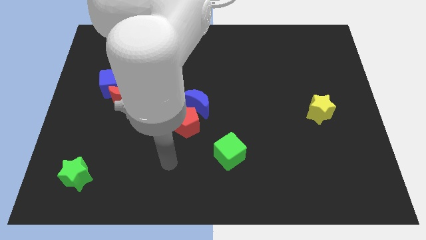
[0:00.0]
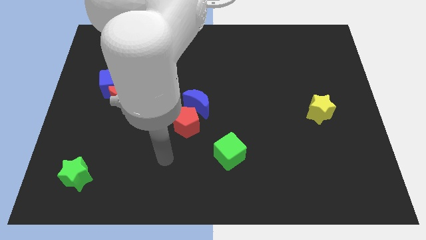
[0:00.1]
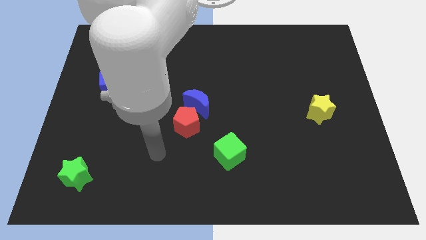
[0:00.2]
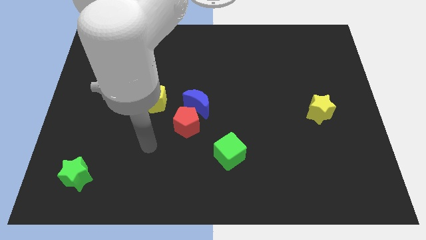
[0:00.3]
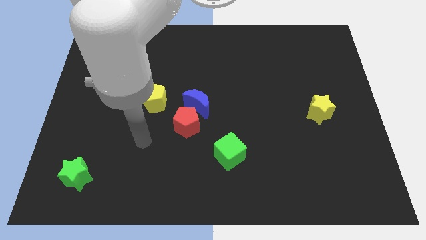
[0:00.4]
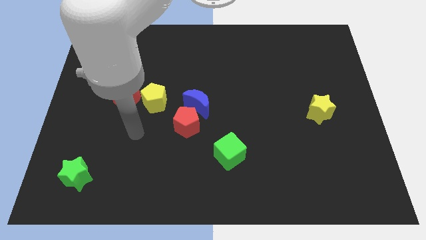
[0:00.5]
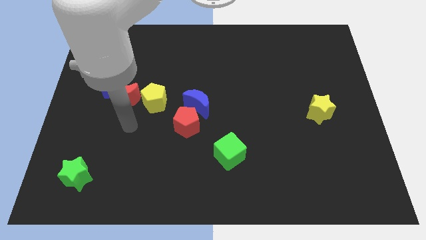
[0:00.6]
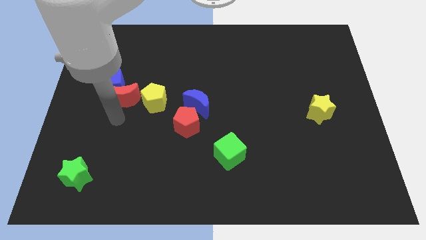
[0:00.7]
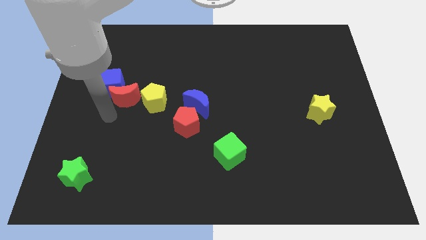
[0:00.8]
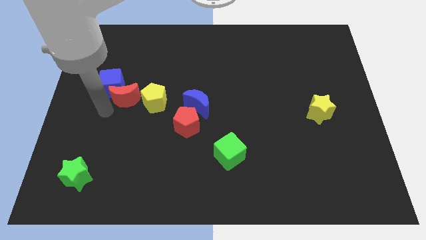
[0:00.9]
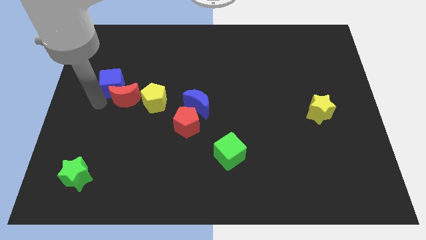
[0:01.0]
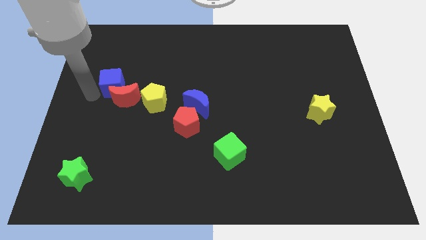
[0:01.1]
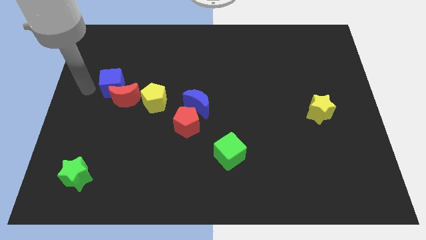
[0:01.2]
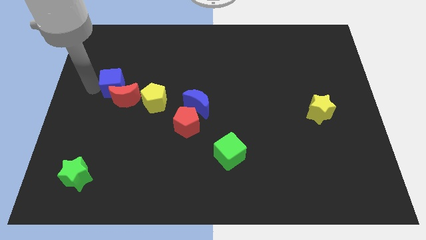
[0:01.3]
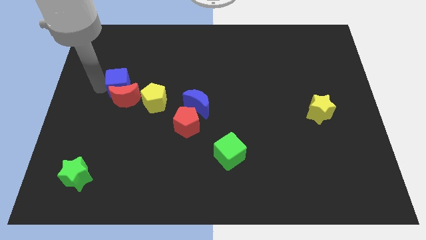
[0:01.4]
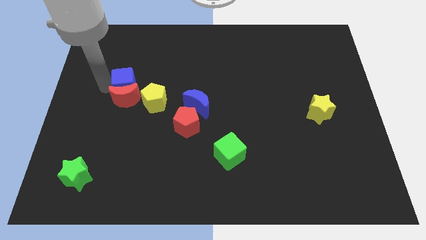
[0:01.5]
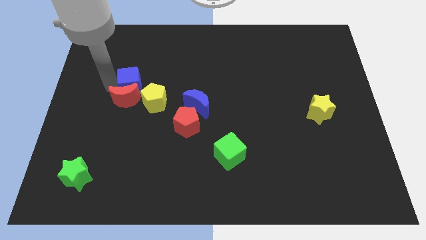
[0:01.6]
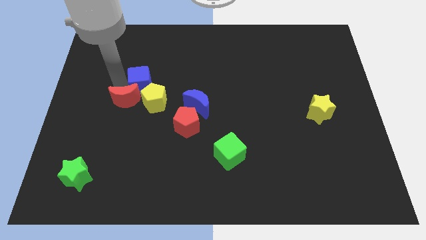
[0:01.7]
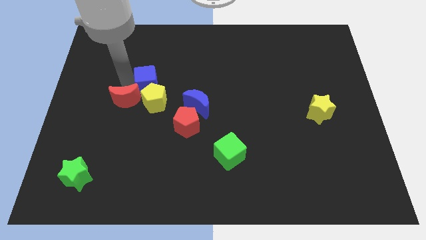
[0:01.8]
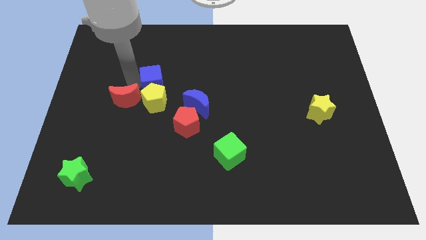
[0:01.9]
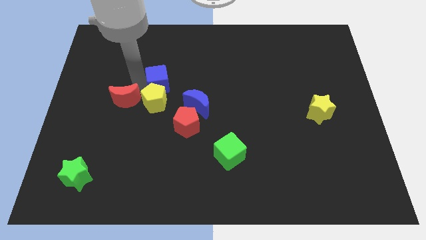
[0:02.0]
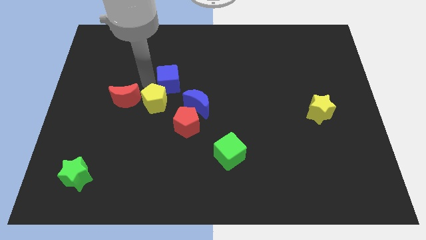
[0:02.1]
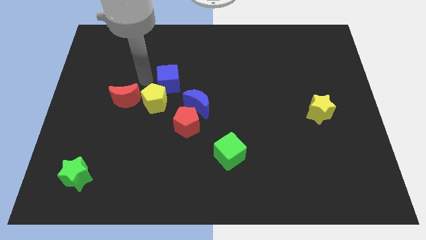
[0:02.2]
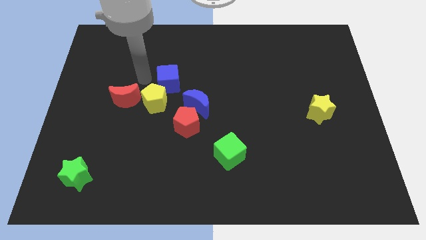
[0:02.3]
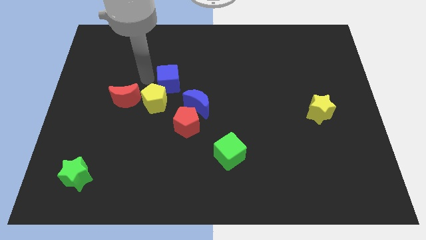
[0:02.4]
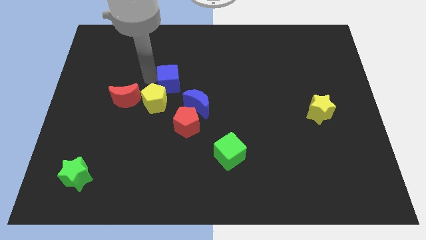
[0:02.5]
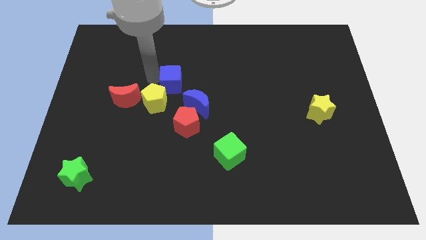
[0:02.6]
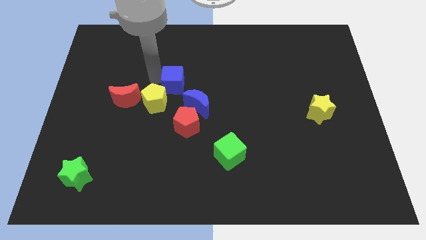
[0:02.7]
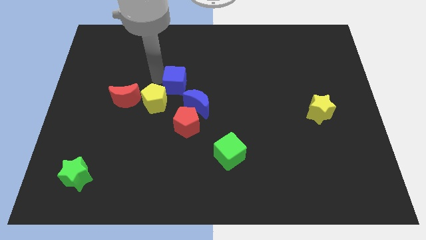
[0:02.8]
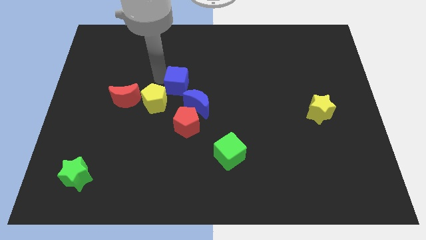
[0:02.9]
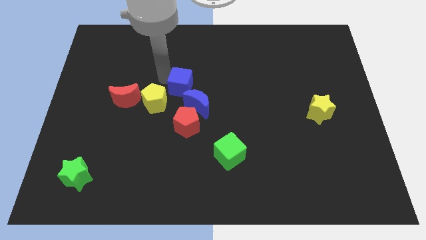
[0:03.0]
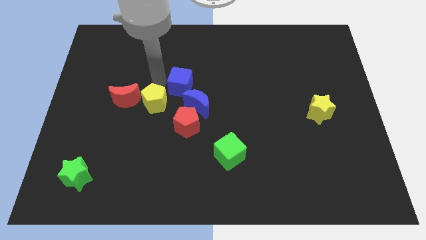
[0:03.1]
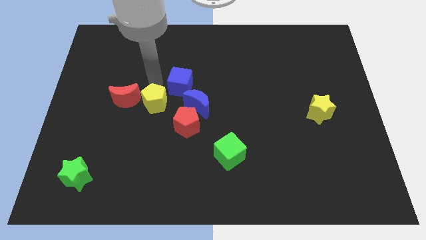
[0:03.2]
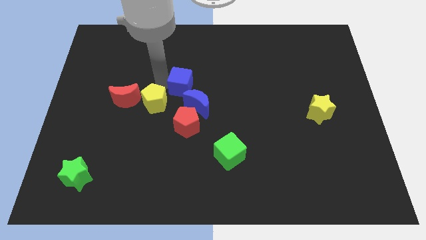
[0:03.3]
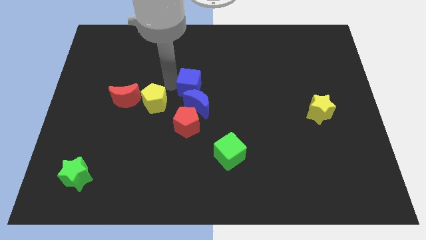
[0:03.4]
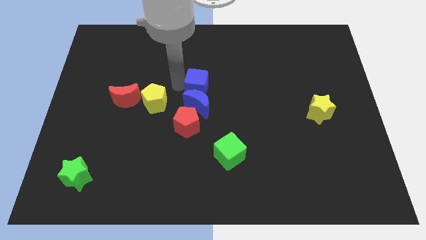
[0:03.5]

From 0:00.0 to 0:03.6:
slide the blue cube to the right

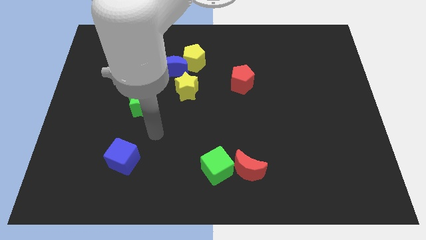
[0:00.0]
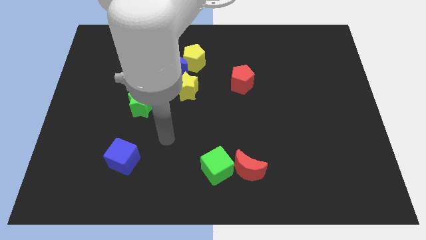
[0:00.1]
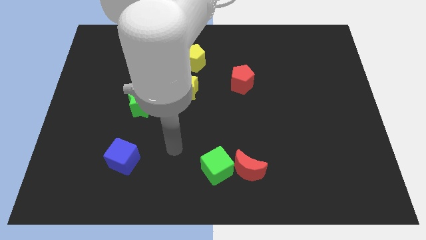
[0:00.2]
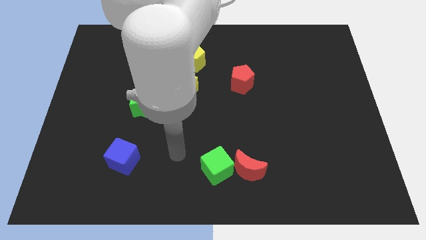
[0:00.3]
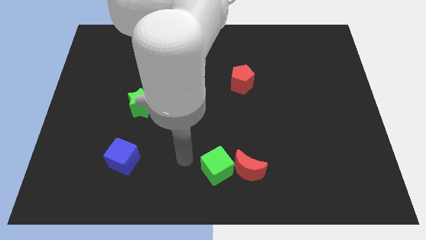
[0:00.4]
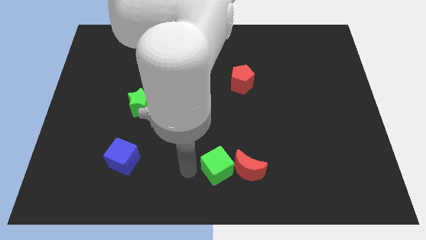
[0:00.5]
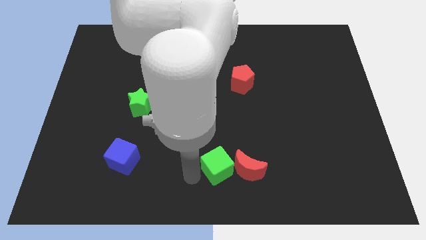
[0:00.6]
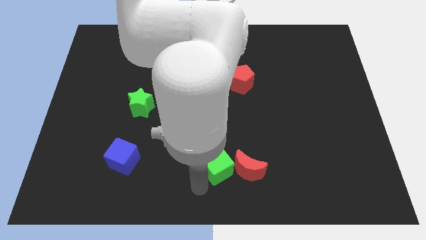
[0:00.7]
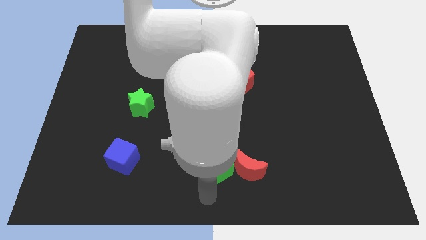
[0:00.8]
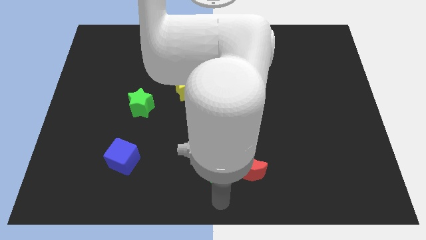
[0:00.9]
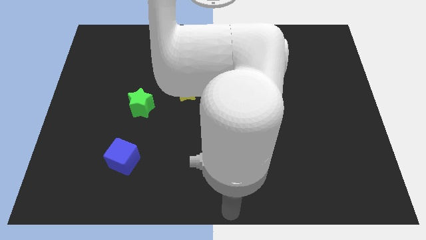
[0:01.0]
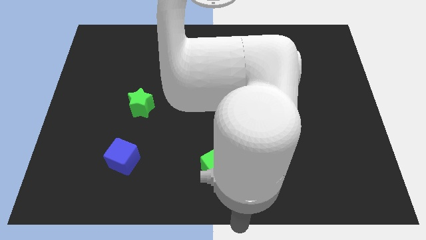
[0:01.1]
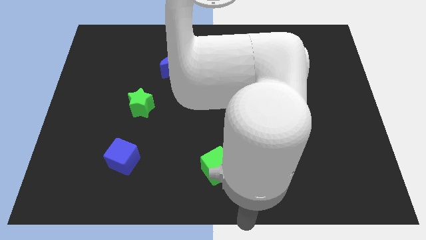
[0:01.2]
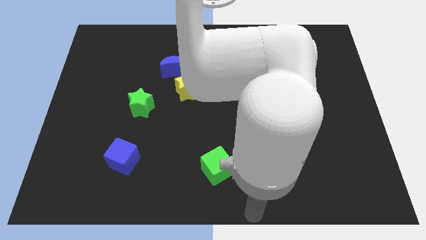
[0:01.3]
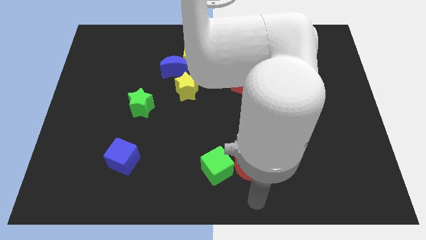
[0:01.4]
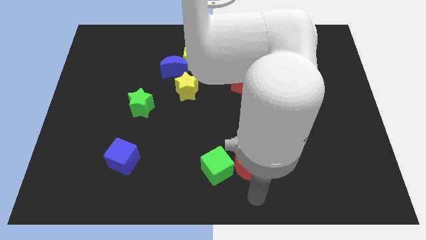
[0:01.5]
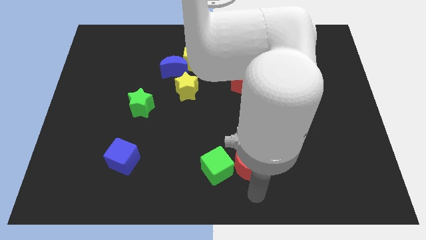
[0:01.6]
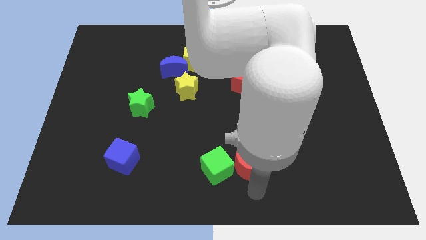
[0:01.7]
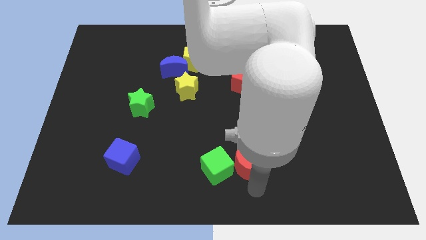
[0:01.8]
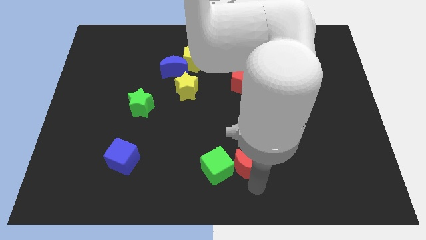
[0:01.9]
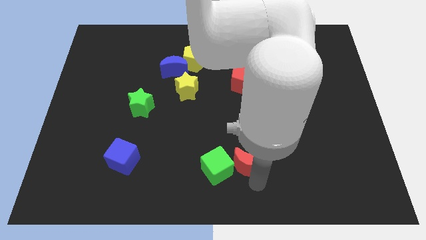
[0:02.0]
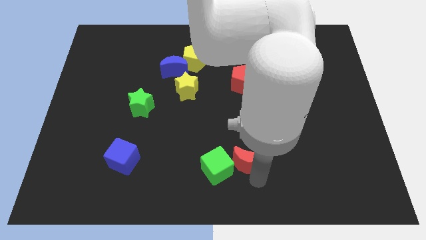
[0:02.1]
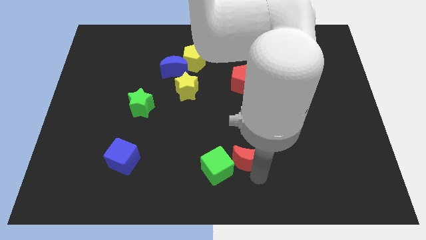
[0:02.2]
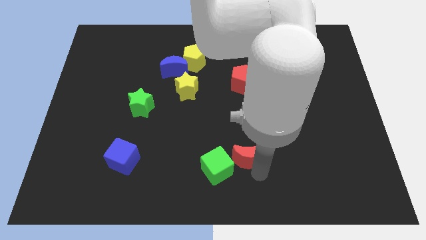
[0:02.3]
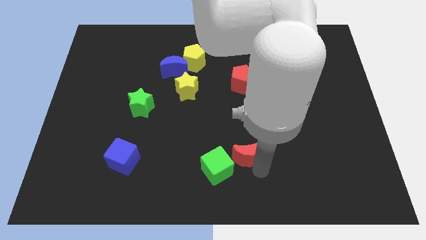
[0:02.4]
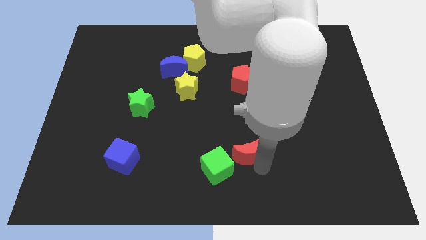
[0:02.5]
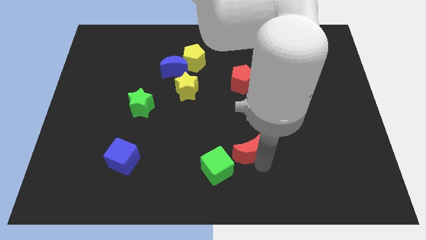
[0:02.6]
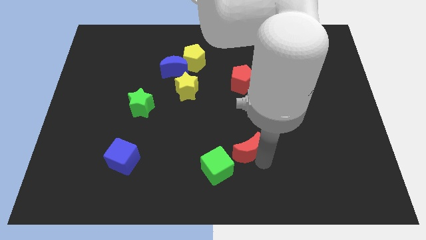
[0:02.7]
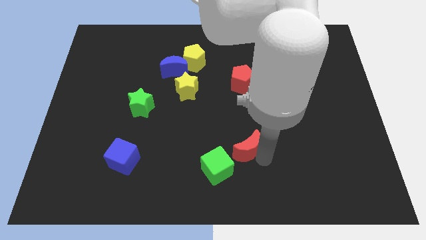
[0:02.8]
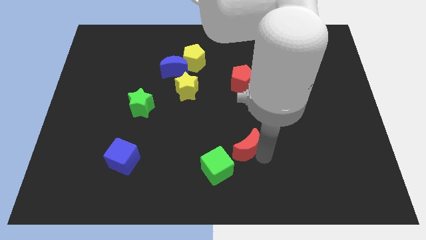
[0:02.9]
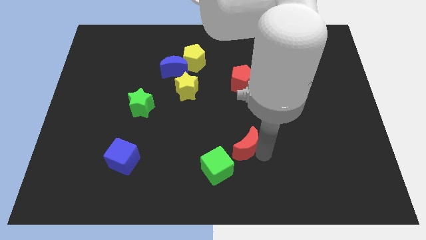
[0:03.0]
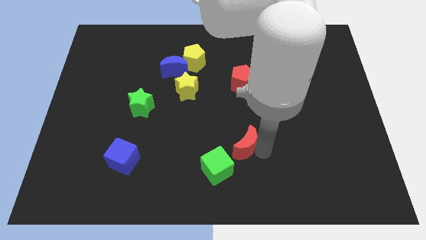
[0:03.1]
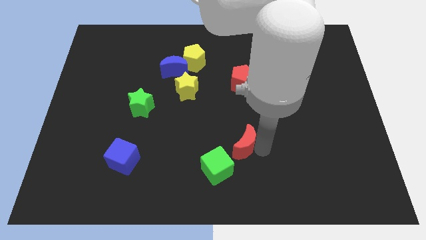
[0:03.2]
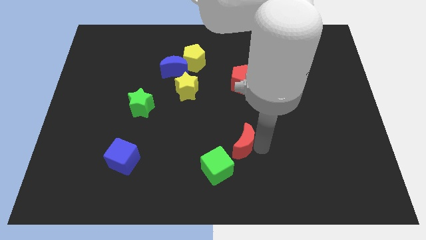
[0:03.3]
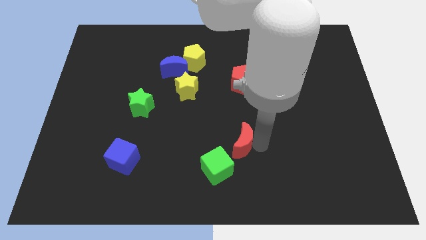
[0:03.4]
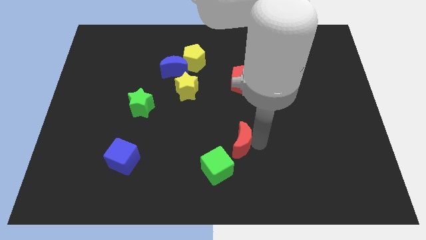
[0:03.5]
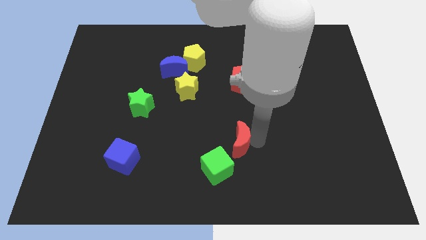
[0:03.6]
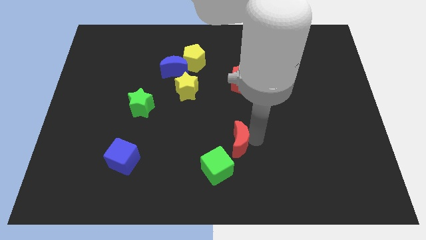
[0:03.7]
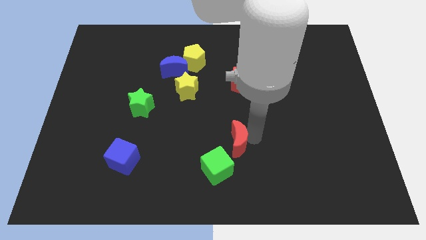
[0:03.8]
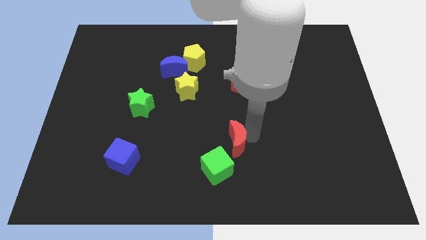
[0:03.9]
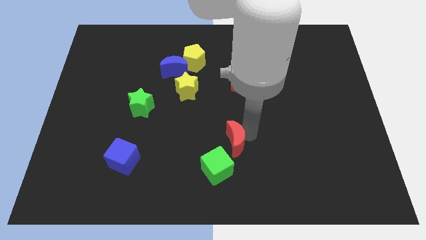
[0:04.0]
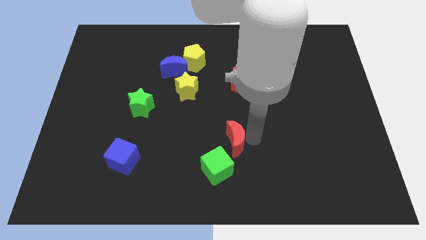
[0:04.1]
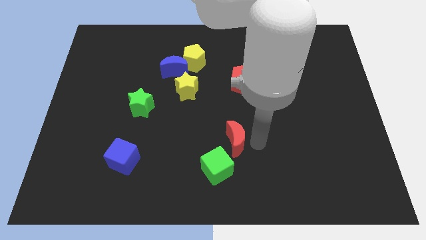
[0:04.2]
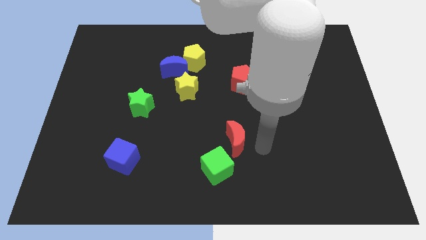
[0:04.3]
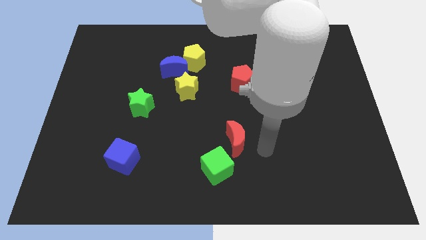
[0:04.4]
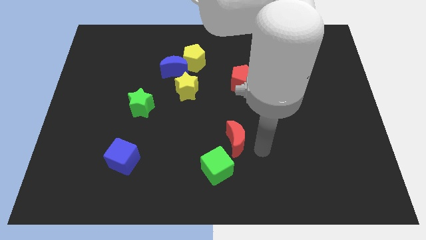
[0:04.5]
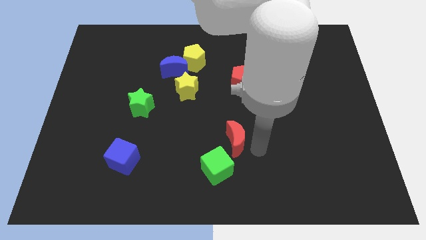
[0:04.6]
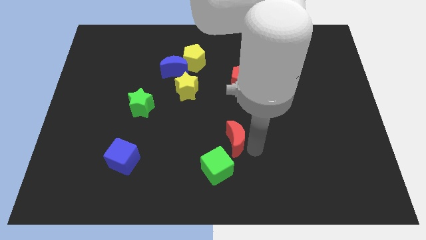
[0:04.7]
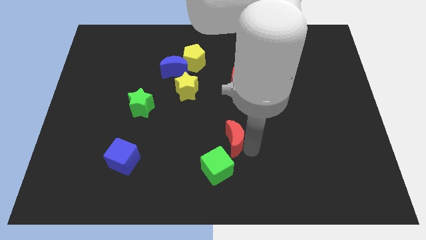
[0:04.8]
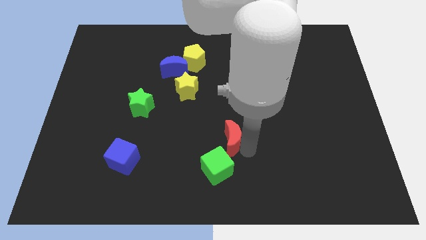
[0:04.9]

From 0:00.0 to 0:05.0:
slightly push the red moon diagonally up and left
